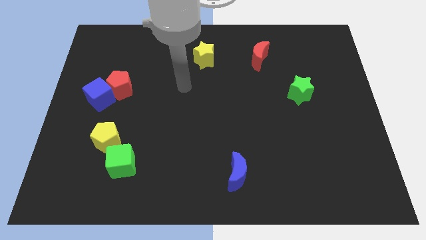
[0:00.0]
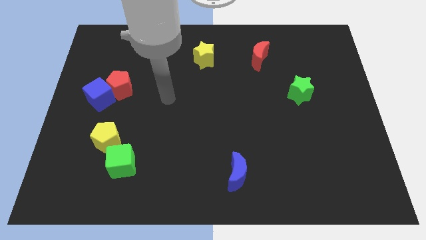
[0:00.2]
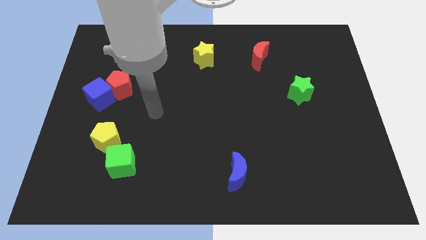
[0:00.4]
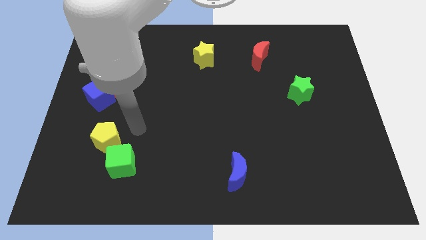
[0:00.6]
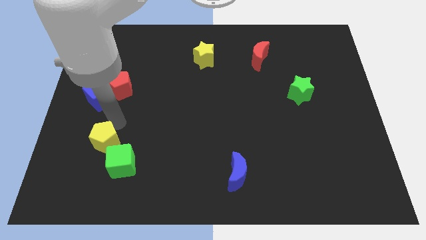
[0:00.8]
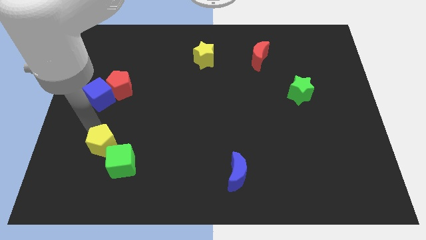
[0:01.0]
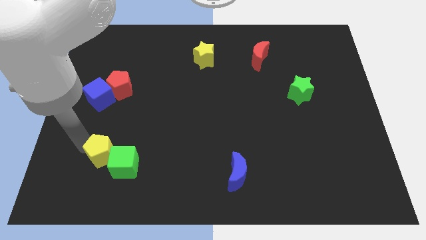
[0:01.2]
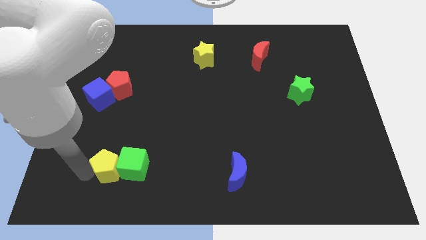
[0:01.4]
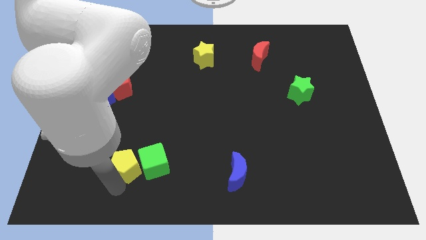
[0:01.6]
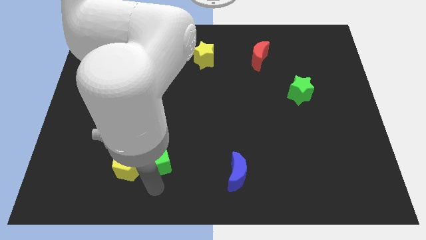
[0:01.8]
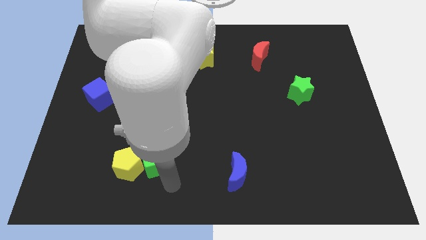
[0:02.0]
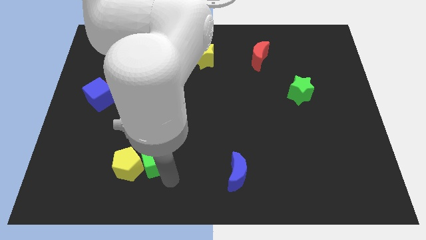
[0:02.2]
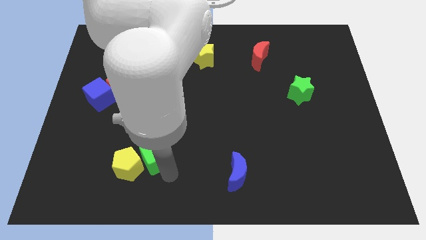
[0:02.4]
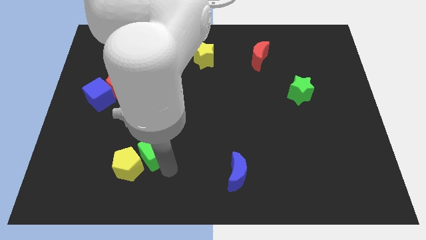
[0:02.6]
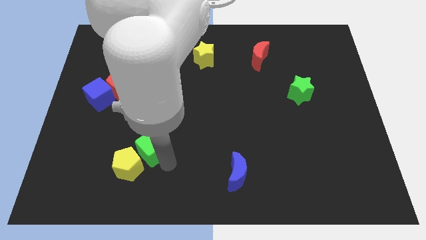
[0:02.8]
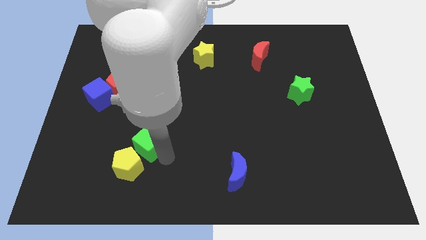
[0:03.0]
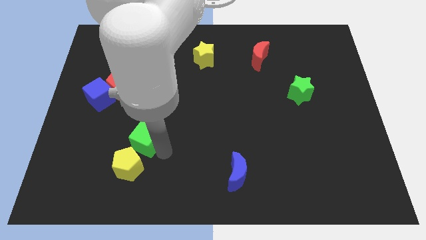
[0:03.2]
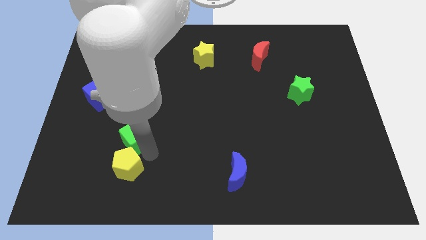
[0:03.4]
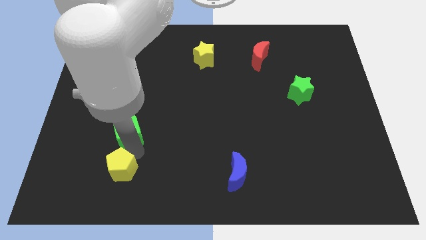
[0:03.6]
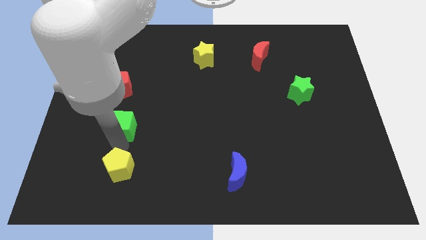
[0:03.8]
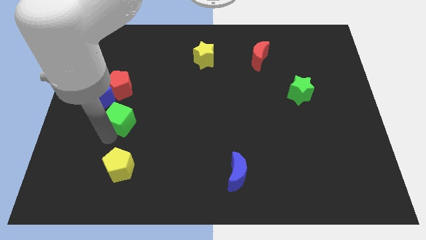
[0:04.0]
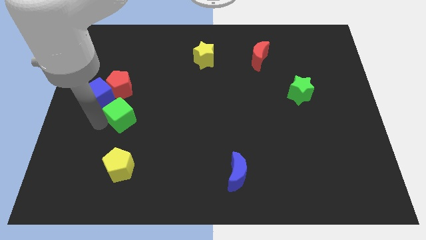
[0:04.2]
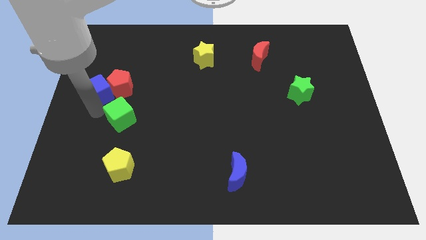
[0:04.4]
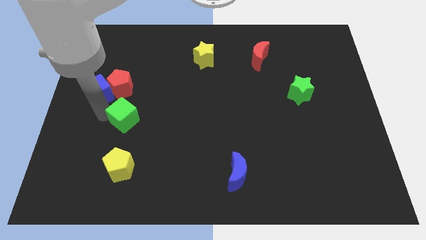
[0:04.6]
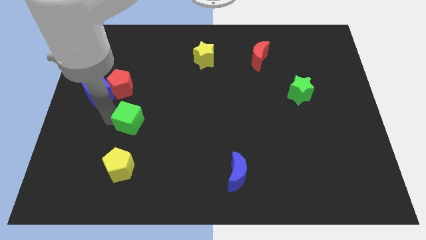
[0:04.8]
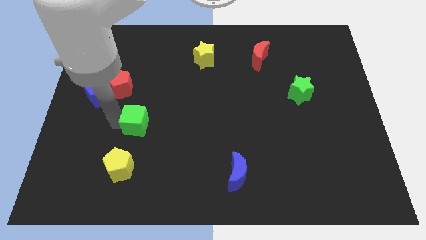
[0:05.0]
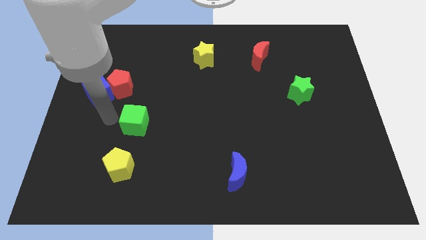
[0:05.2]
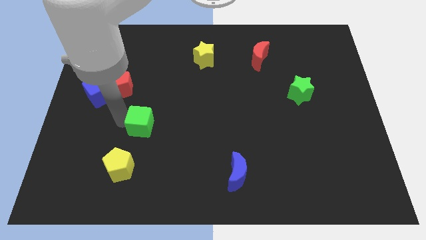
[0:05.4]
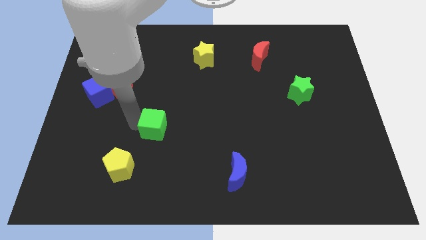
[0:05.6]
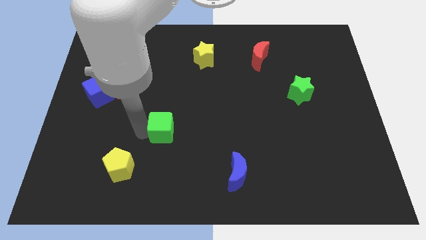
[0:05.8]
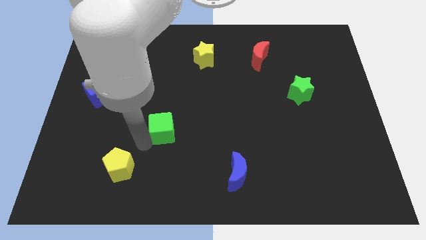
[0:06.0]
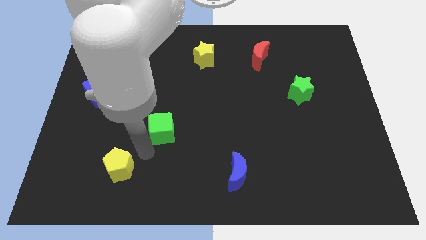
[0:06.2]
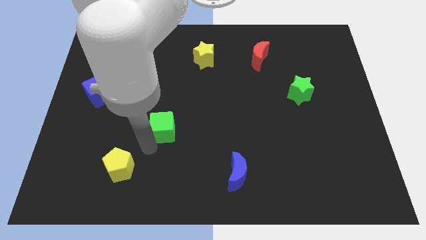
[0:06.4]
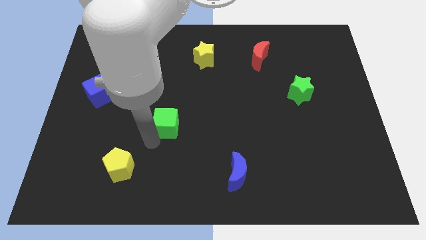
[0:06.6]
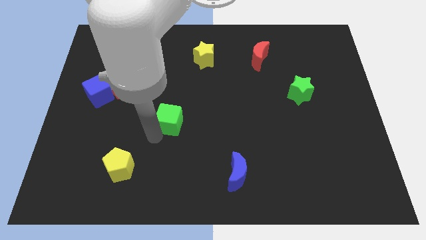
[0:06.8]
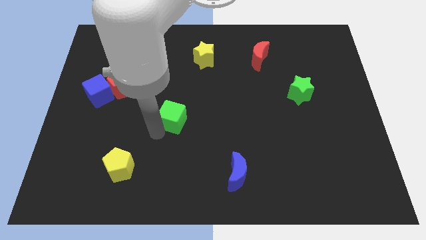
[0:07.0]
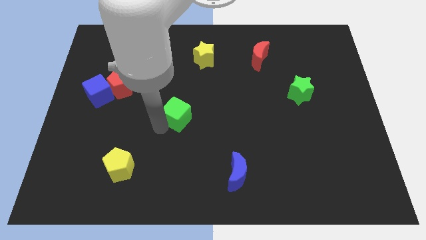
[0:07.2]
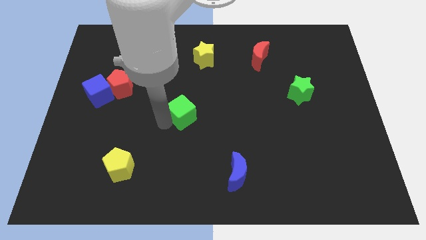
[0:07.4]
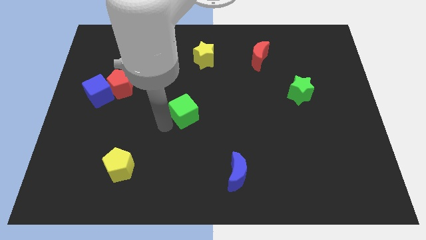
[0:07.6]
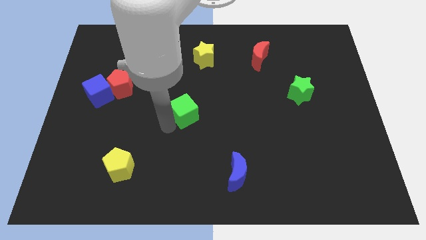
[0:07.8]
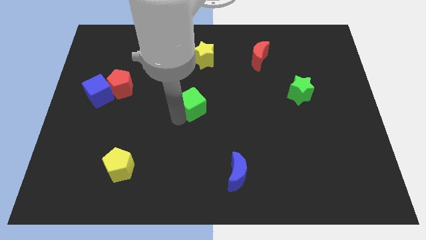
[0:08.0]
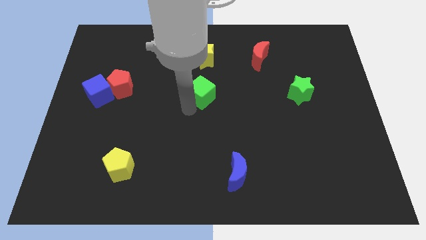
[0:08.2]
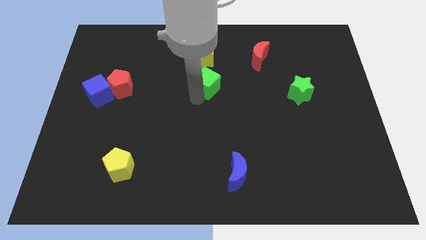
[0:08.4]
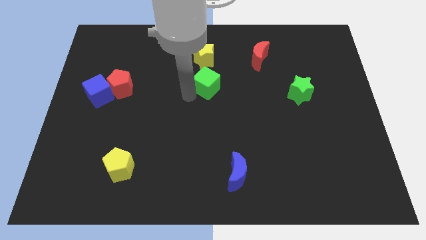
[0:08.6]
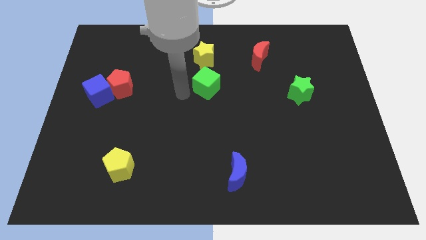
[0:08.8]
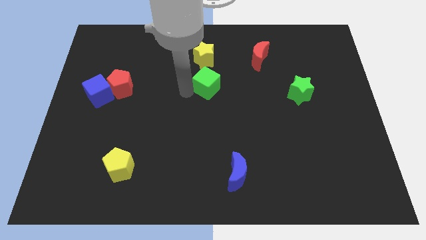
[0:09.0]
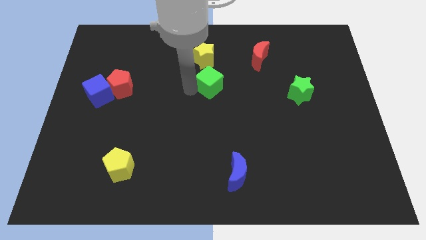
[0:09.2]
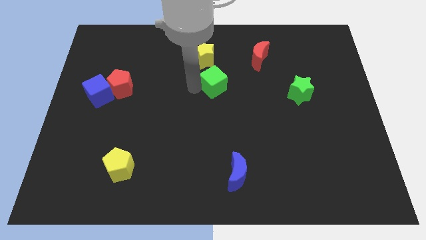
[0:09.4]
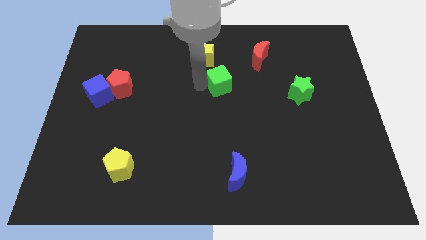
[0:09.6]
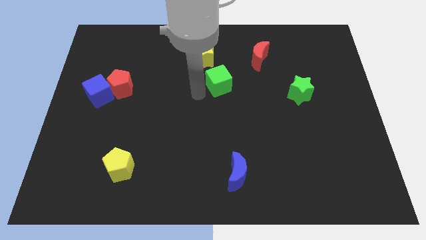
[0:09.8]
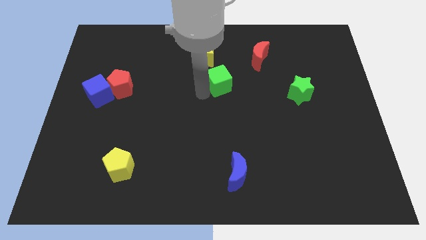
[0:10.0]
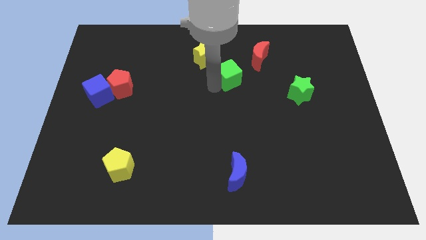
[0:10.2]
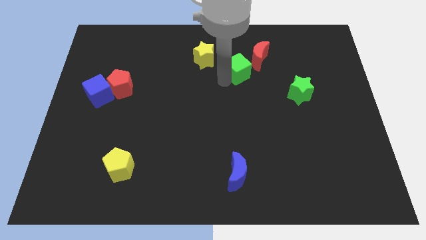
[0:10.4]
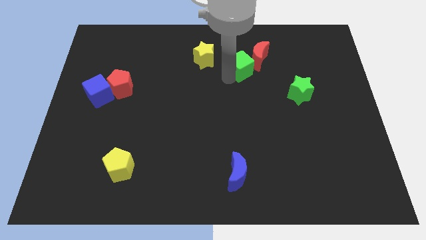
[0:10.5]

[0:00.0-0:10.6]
put the green cube to the red moon

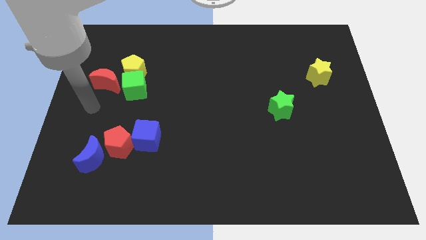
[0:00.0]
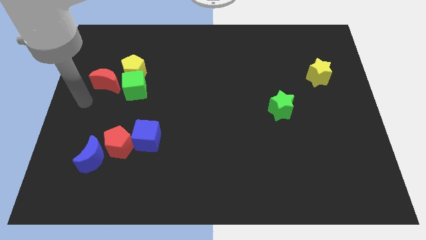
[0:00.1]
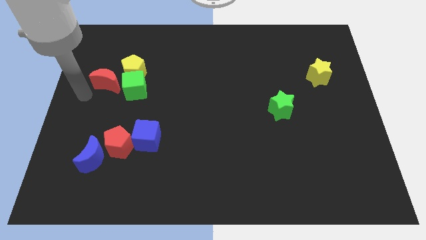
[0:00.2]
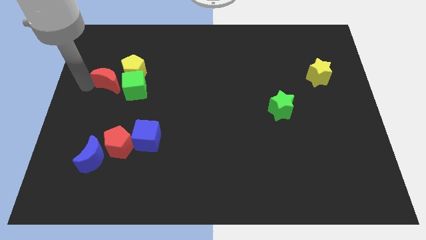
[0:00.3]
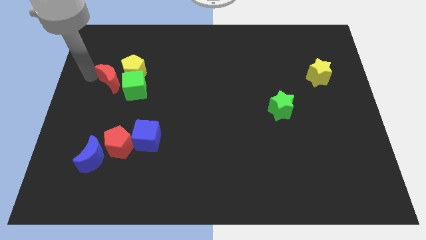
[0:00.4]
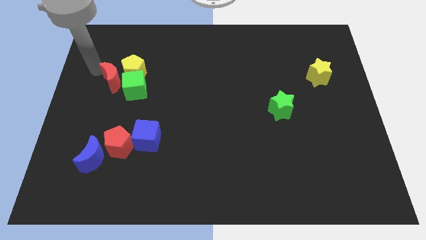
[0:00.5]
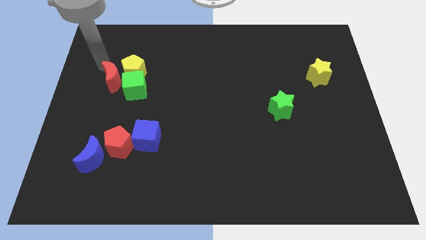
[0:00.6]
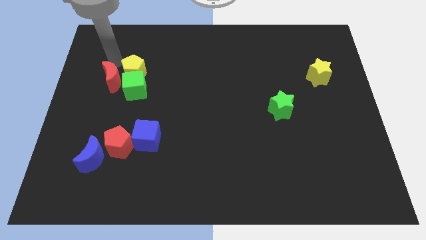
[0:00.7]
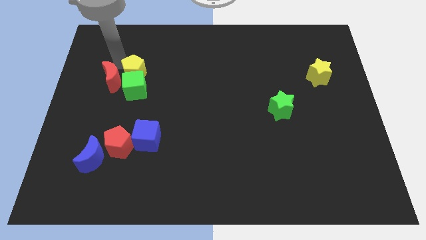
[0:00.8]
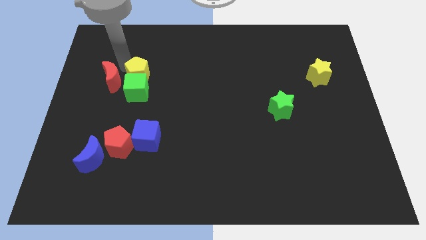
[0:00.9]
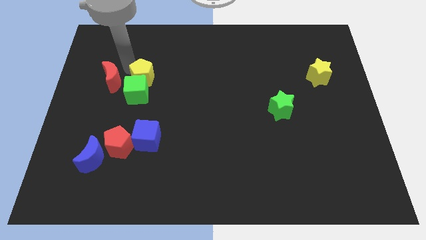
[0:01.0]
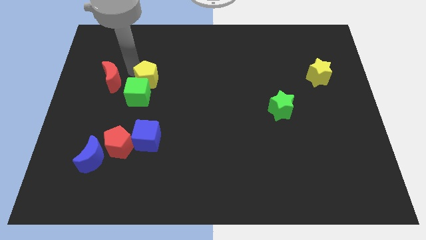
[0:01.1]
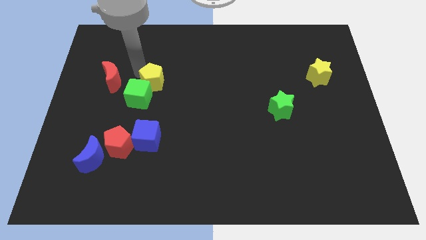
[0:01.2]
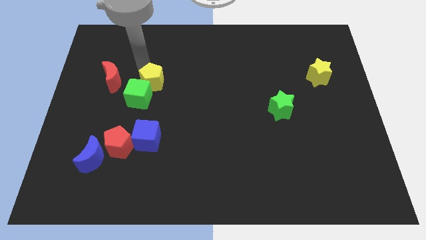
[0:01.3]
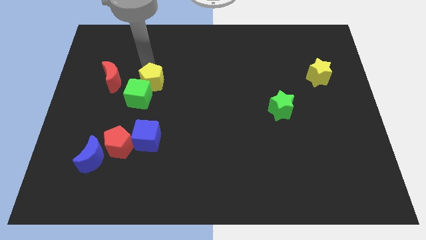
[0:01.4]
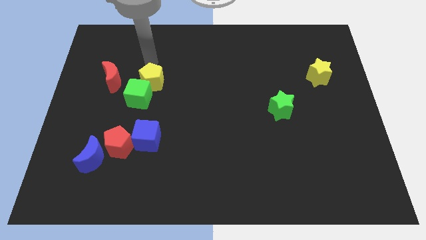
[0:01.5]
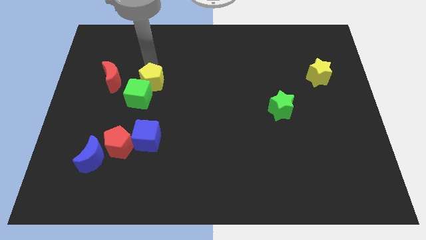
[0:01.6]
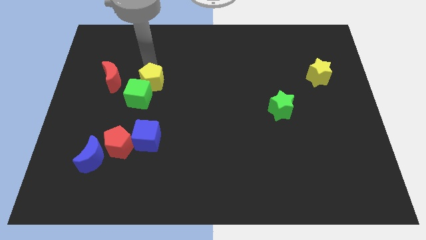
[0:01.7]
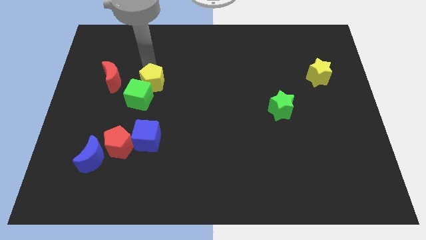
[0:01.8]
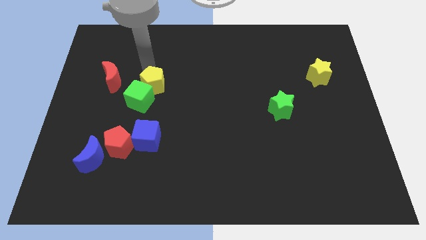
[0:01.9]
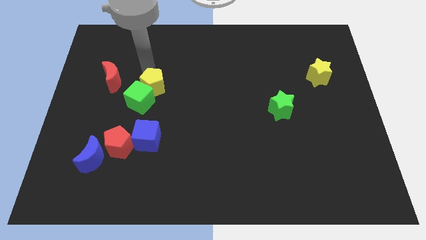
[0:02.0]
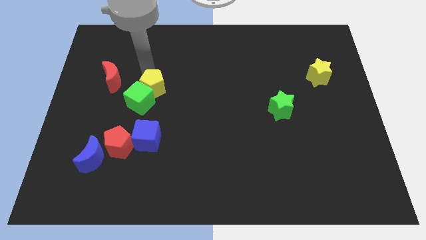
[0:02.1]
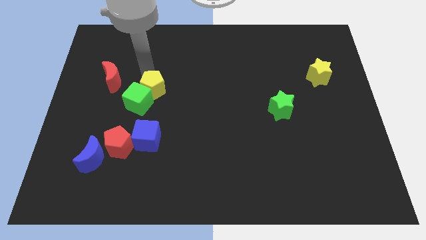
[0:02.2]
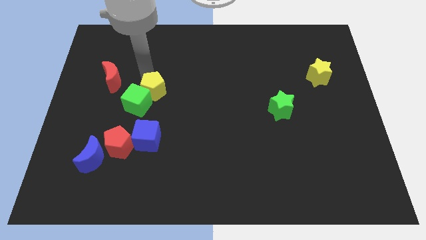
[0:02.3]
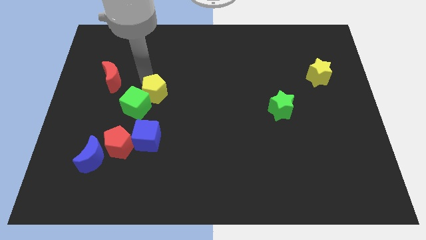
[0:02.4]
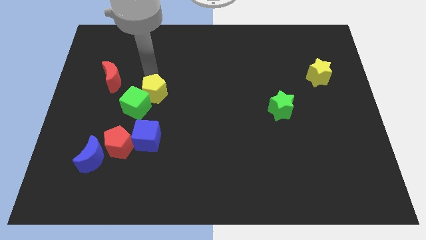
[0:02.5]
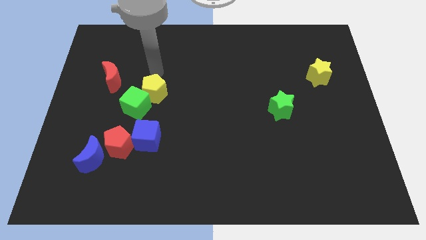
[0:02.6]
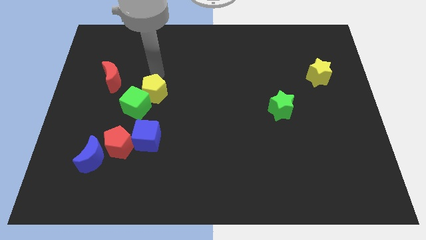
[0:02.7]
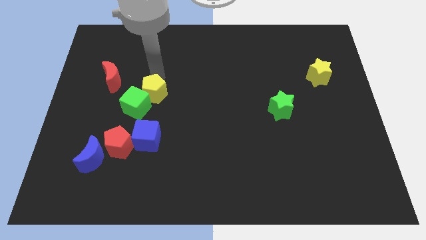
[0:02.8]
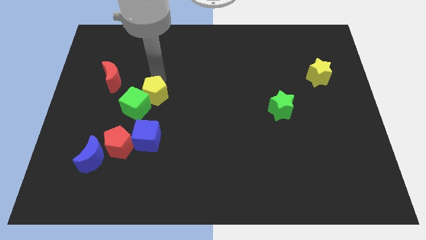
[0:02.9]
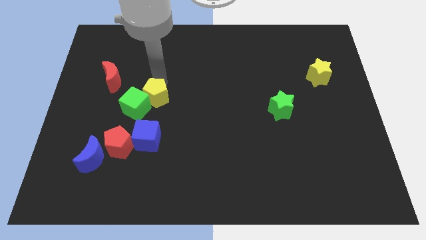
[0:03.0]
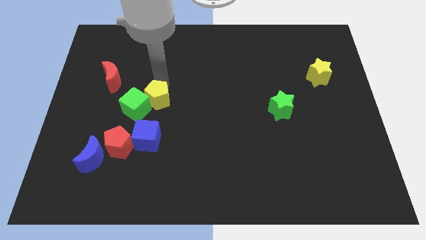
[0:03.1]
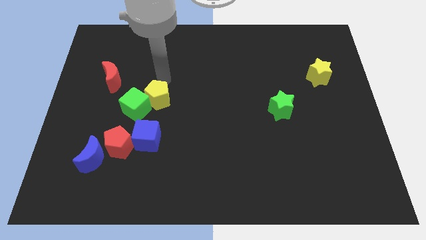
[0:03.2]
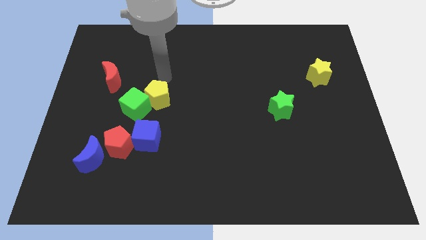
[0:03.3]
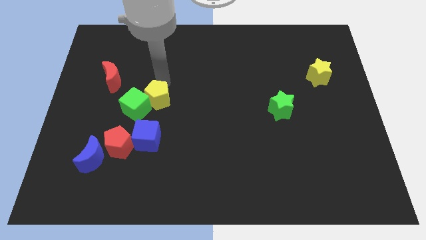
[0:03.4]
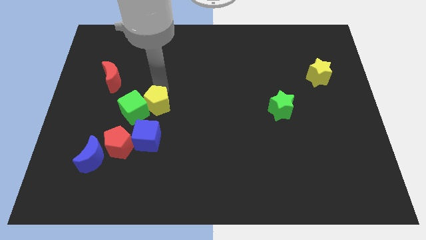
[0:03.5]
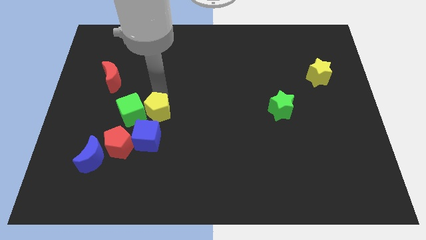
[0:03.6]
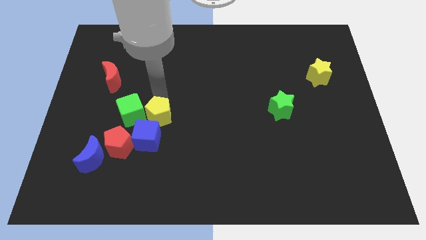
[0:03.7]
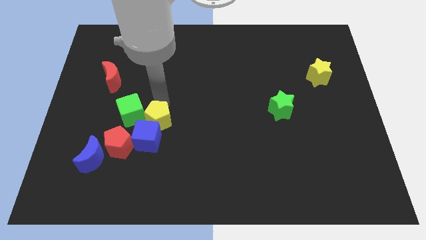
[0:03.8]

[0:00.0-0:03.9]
move the yellow pentagon close to the blue cube
